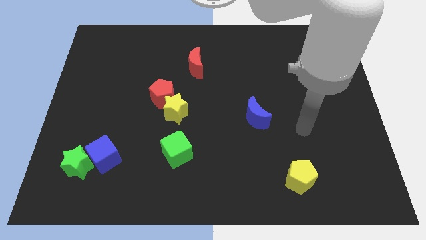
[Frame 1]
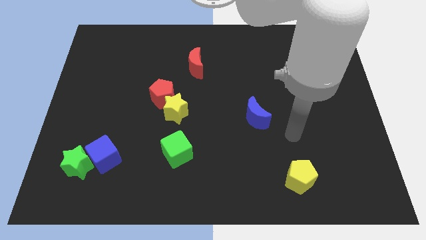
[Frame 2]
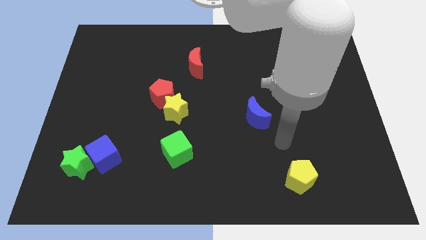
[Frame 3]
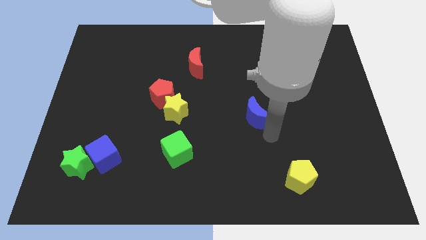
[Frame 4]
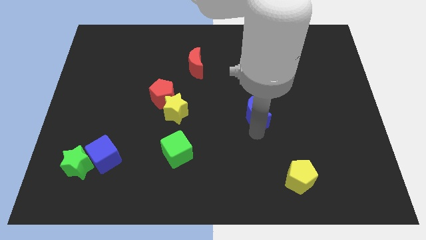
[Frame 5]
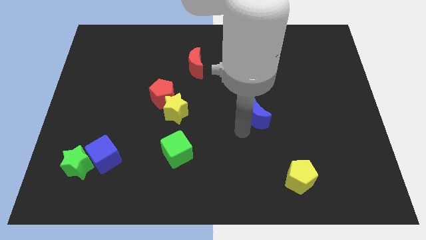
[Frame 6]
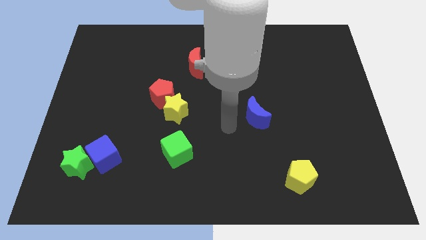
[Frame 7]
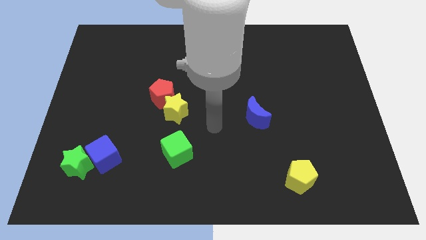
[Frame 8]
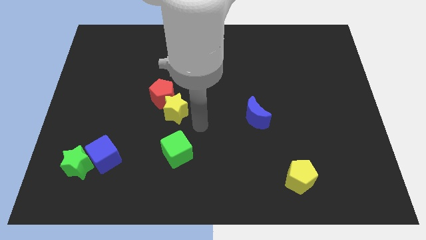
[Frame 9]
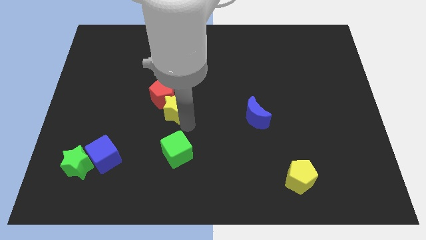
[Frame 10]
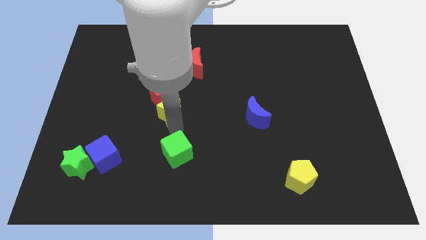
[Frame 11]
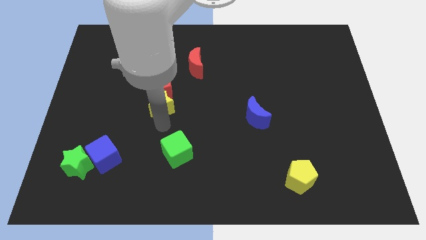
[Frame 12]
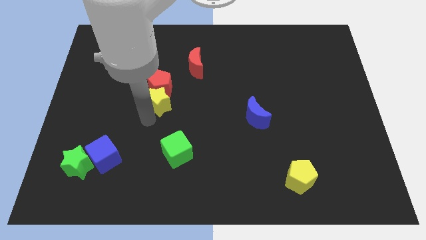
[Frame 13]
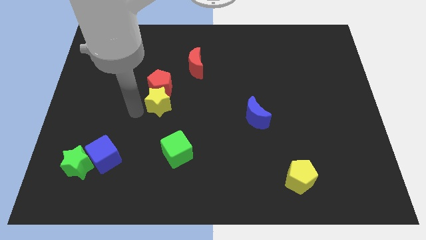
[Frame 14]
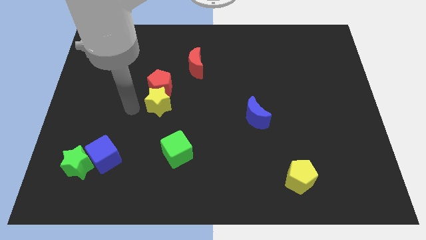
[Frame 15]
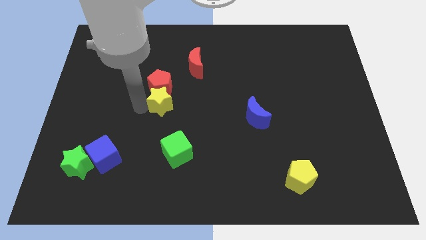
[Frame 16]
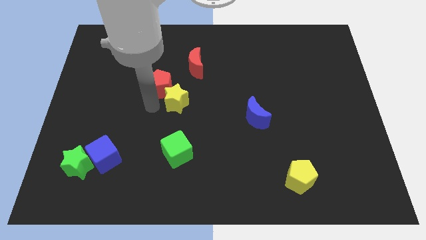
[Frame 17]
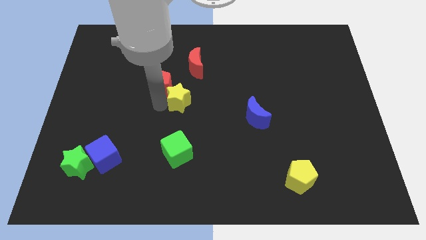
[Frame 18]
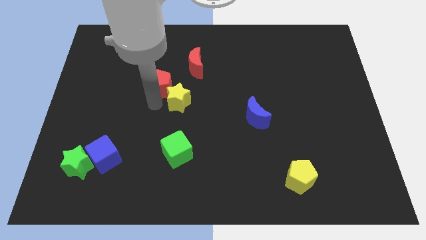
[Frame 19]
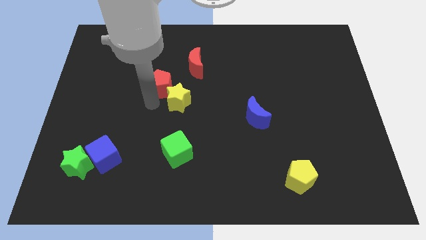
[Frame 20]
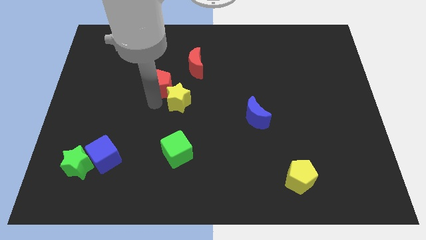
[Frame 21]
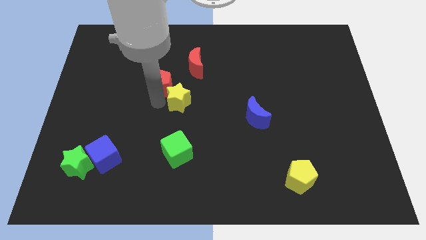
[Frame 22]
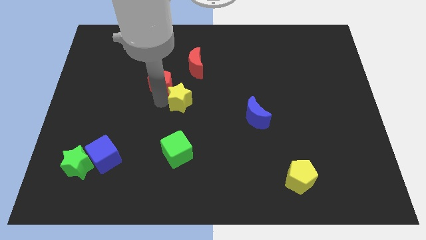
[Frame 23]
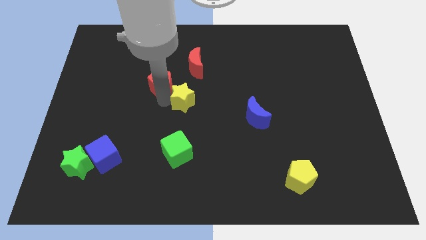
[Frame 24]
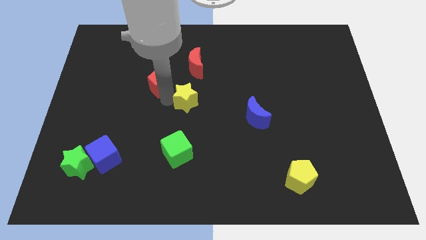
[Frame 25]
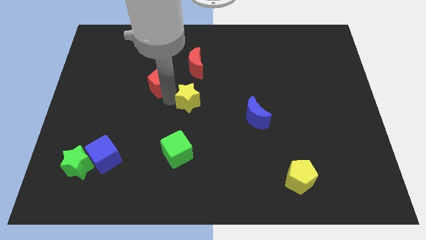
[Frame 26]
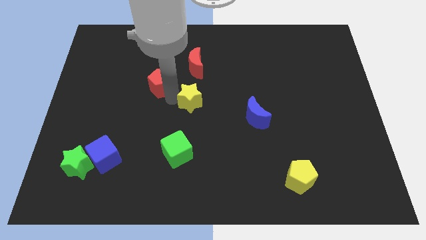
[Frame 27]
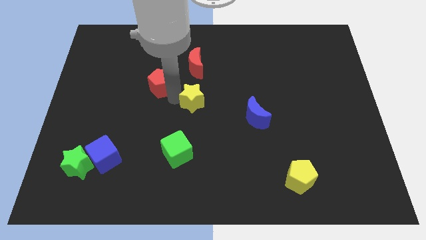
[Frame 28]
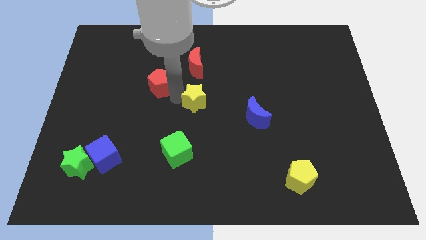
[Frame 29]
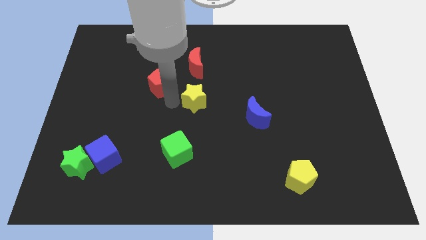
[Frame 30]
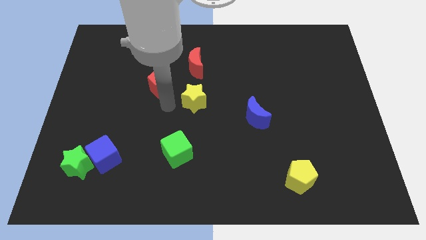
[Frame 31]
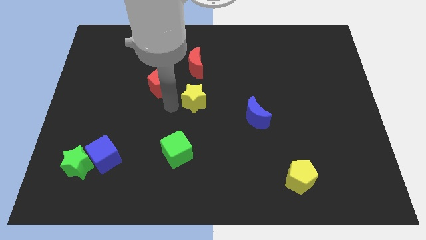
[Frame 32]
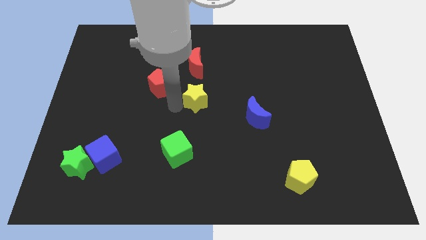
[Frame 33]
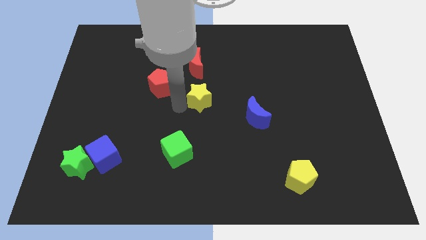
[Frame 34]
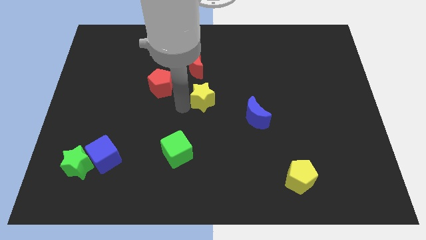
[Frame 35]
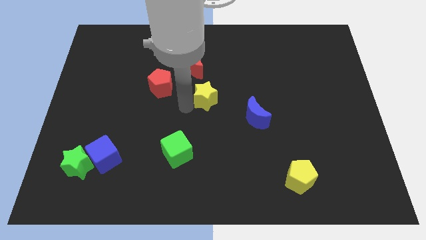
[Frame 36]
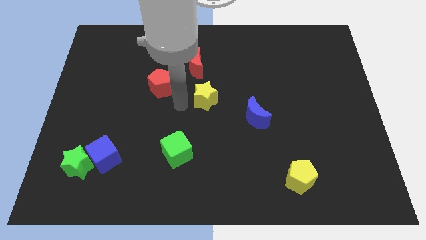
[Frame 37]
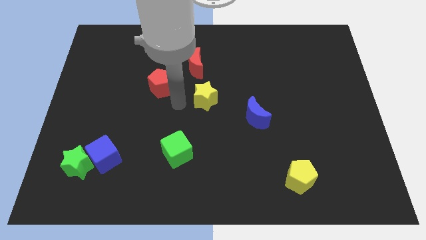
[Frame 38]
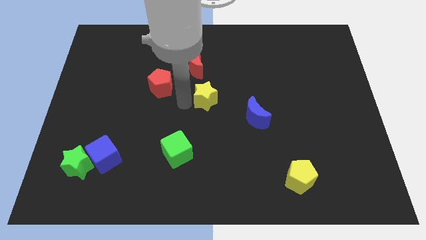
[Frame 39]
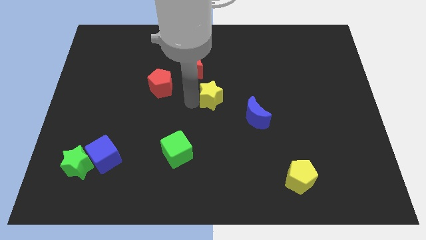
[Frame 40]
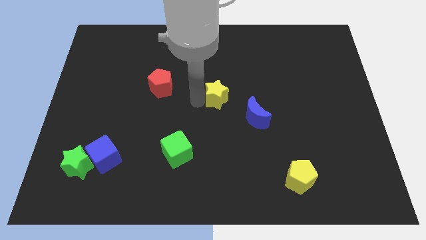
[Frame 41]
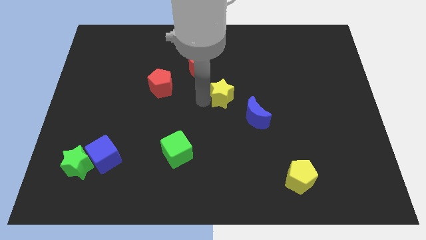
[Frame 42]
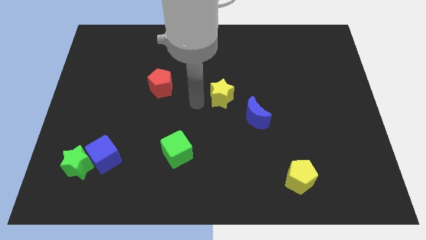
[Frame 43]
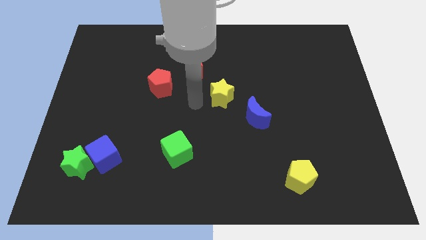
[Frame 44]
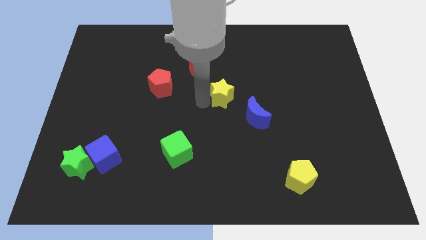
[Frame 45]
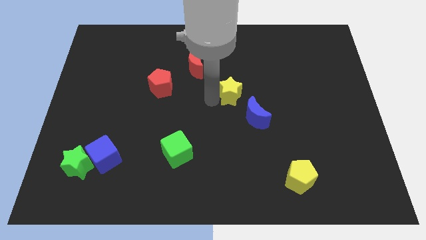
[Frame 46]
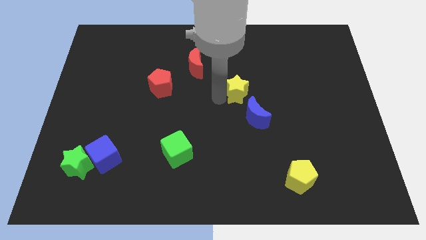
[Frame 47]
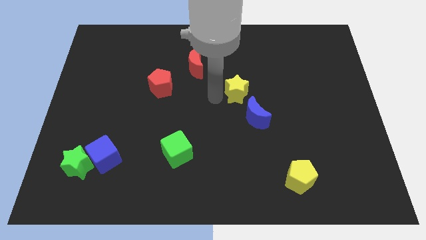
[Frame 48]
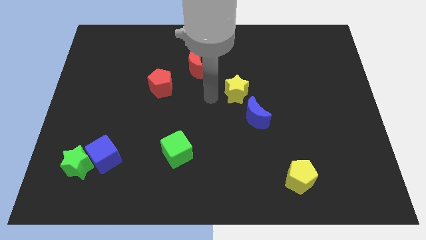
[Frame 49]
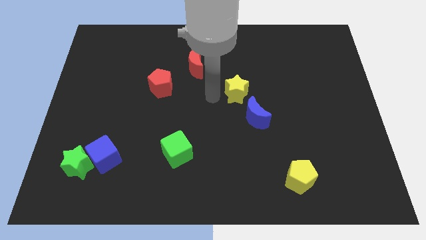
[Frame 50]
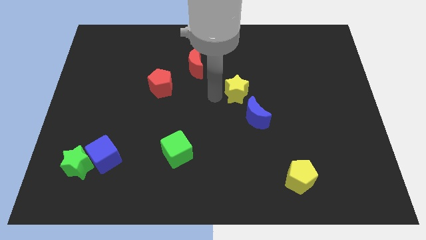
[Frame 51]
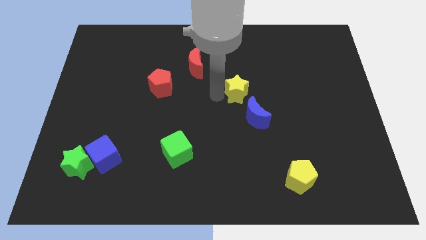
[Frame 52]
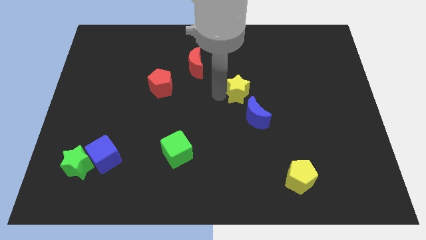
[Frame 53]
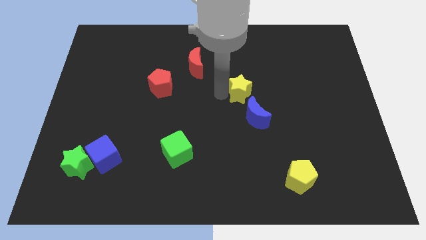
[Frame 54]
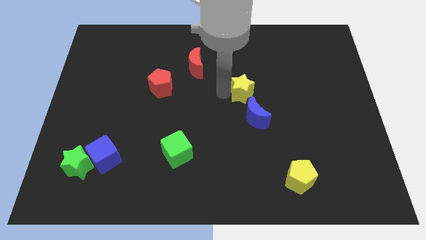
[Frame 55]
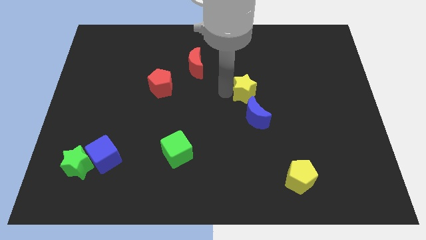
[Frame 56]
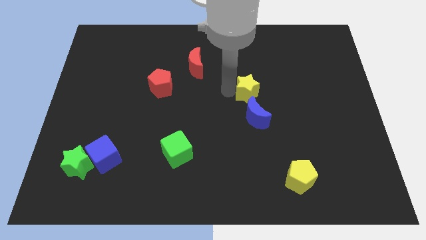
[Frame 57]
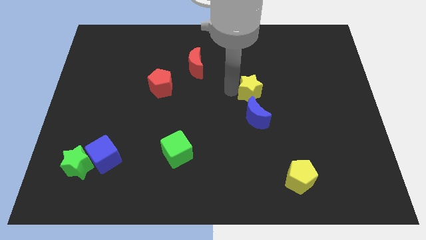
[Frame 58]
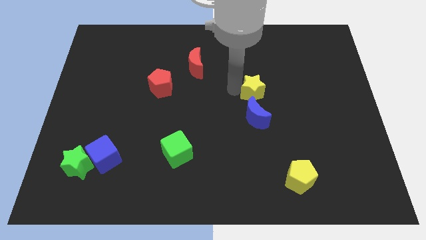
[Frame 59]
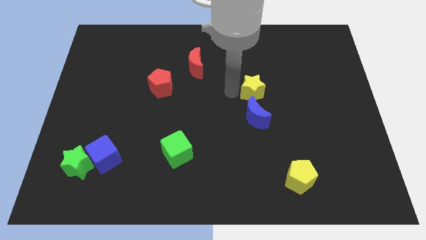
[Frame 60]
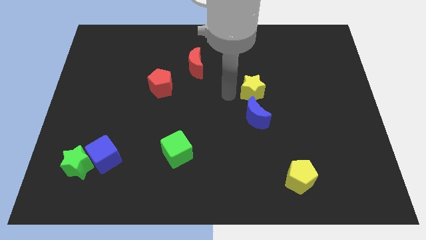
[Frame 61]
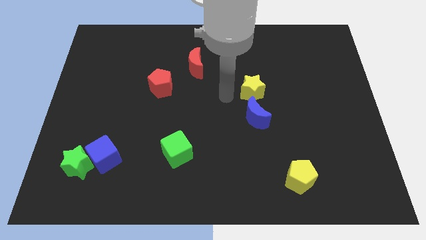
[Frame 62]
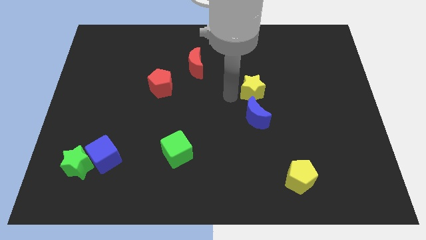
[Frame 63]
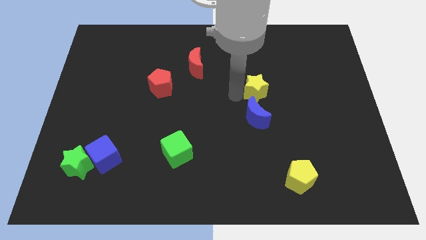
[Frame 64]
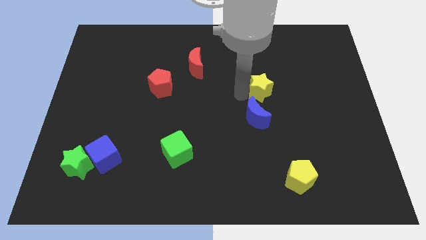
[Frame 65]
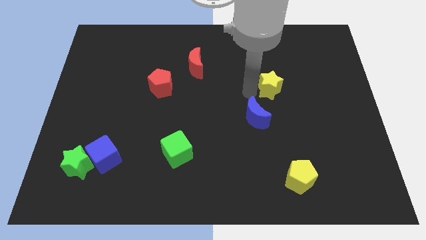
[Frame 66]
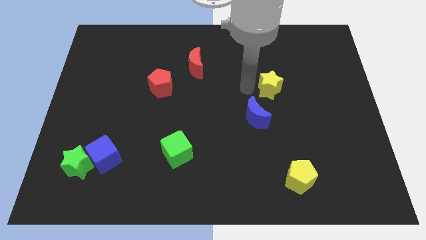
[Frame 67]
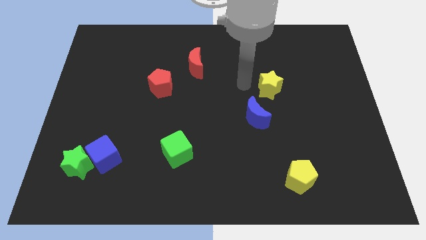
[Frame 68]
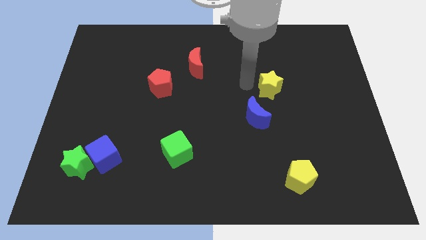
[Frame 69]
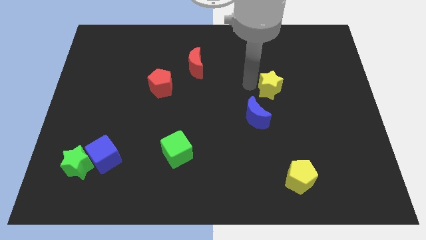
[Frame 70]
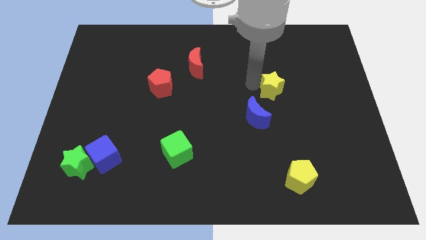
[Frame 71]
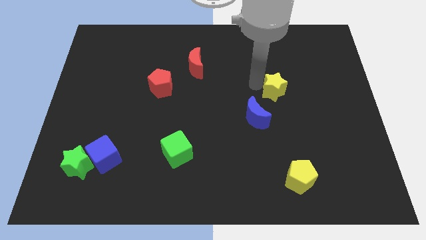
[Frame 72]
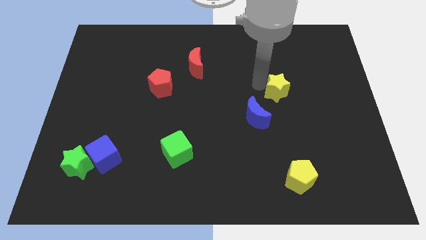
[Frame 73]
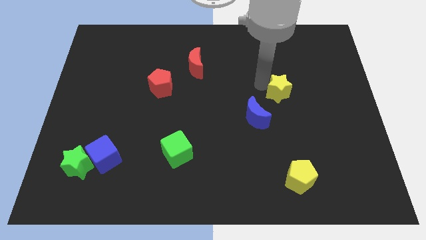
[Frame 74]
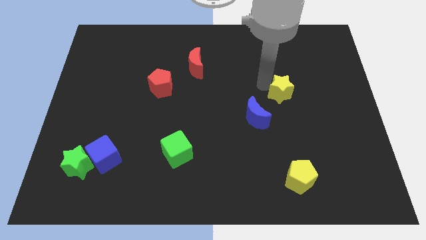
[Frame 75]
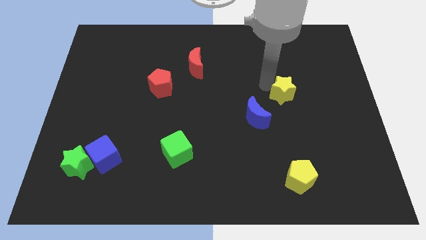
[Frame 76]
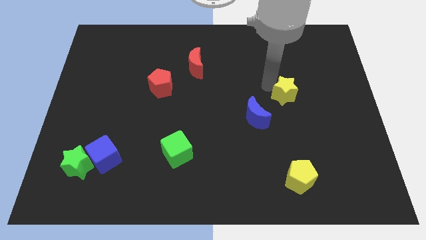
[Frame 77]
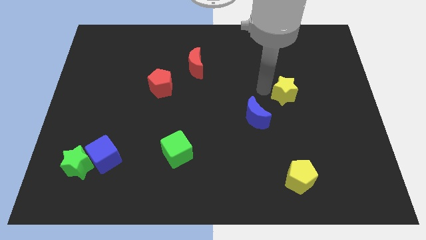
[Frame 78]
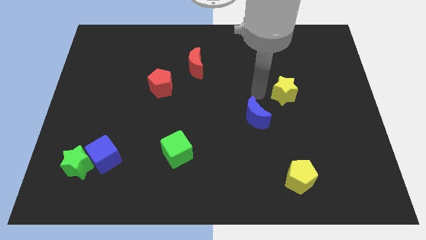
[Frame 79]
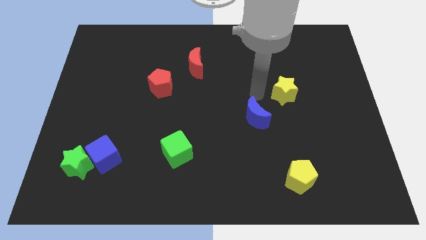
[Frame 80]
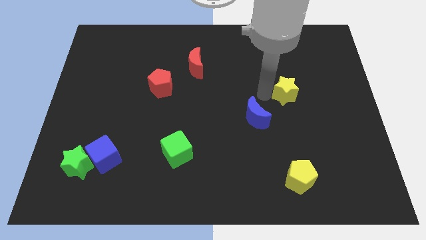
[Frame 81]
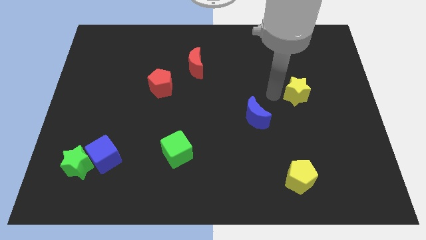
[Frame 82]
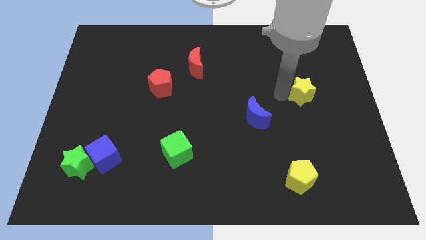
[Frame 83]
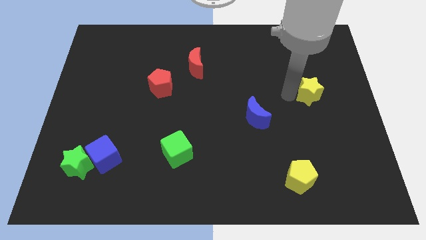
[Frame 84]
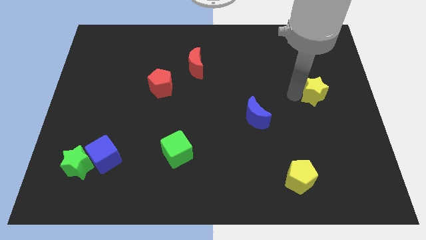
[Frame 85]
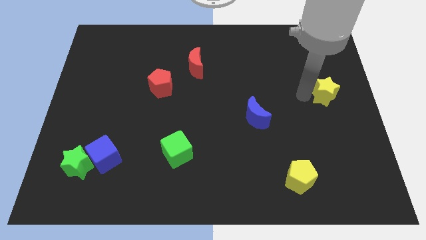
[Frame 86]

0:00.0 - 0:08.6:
move the yellow star to the center right
